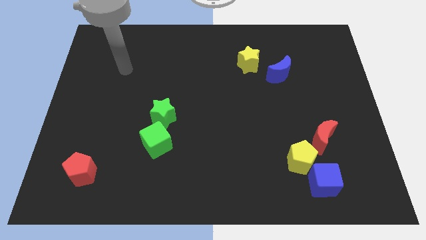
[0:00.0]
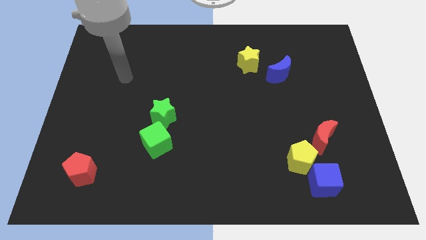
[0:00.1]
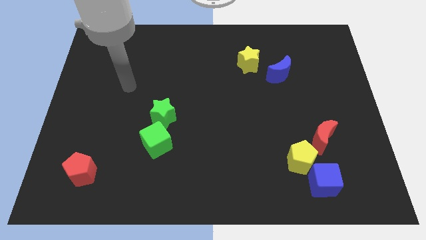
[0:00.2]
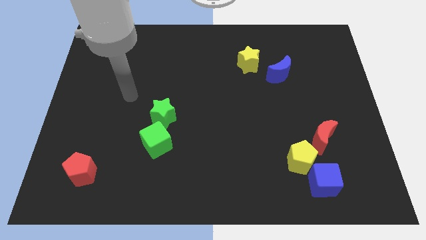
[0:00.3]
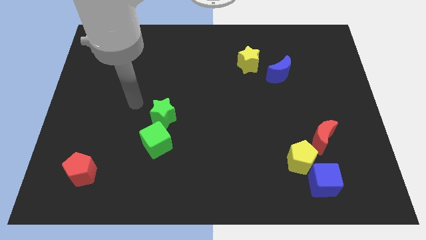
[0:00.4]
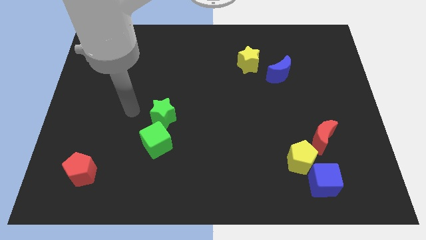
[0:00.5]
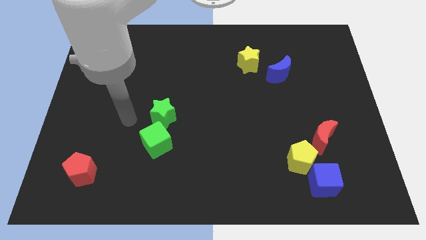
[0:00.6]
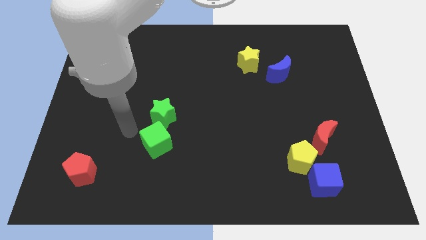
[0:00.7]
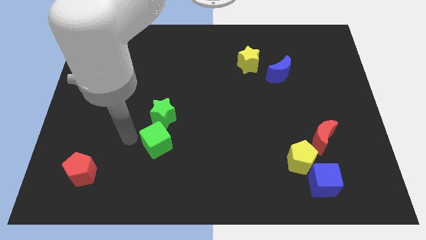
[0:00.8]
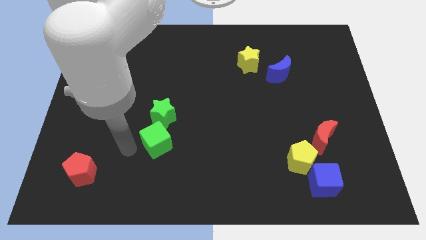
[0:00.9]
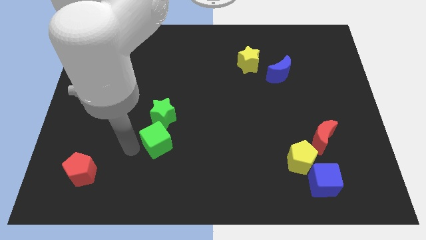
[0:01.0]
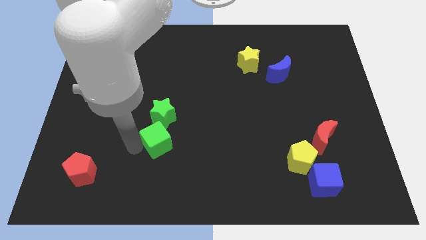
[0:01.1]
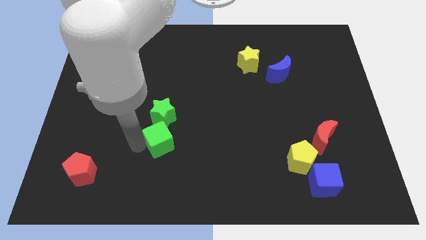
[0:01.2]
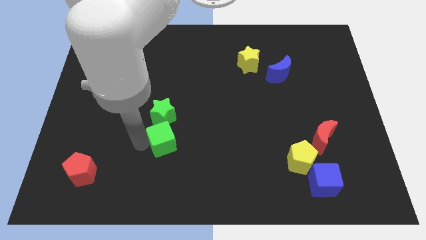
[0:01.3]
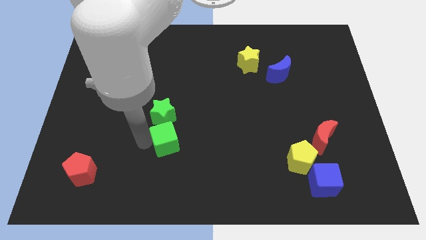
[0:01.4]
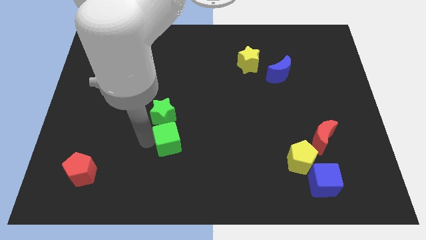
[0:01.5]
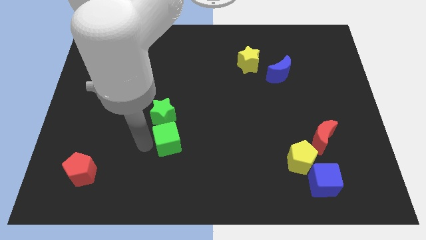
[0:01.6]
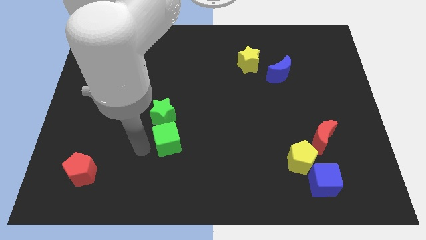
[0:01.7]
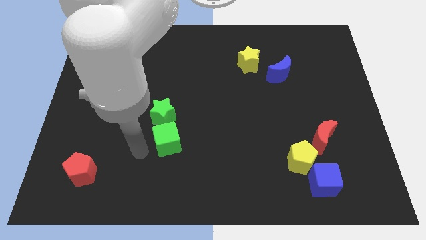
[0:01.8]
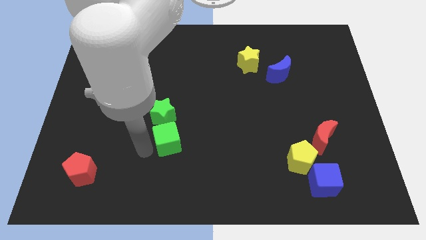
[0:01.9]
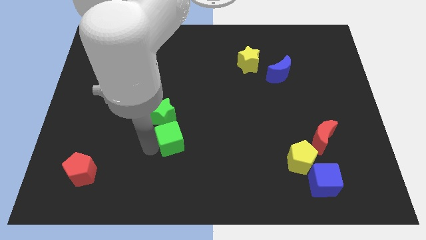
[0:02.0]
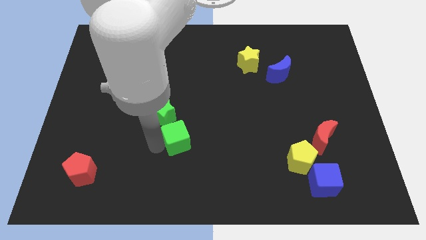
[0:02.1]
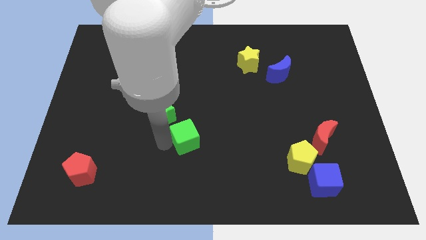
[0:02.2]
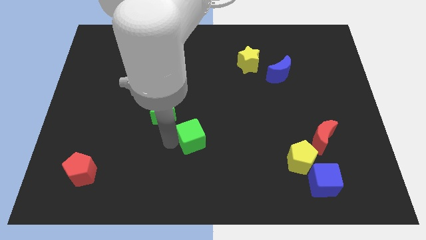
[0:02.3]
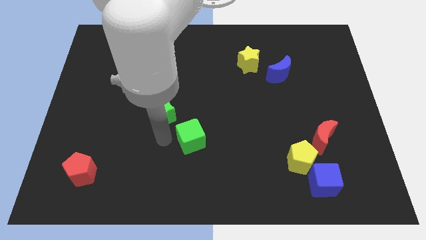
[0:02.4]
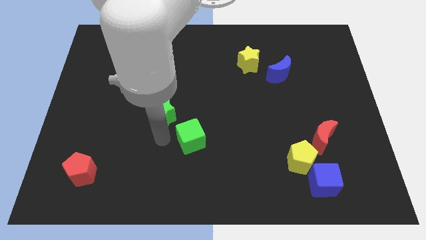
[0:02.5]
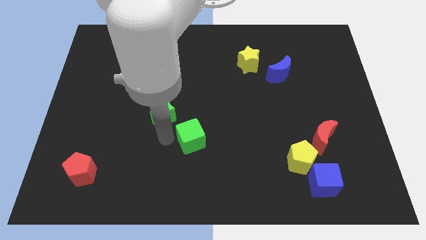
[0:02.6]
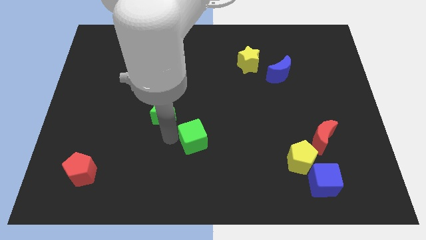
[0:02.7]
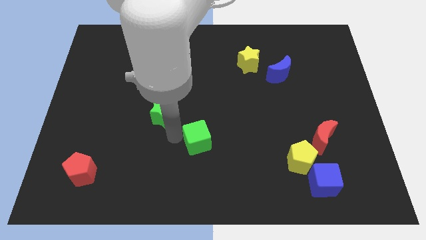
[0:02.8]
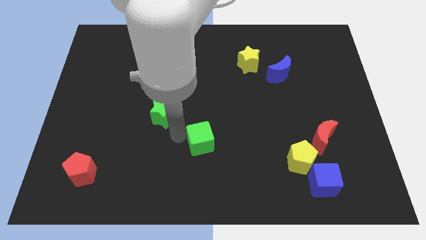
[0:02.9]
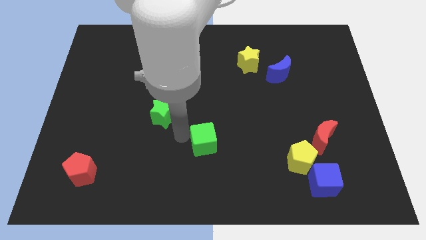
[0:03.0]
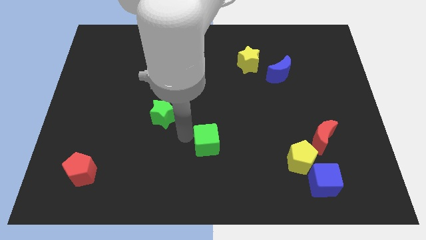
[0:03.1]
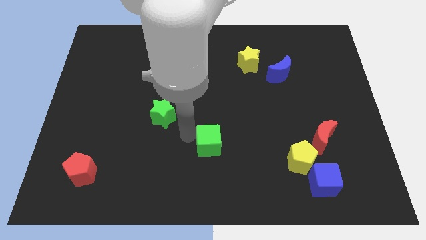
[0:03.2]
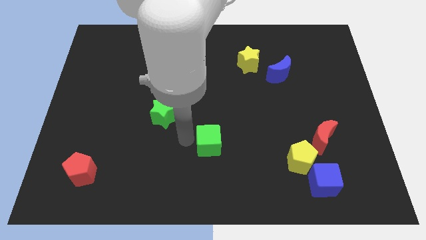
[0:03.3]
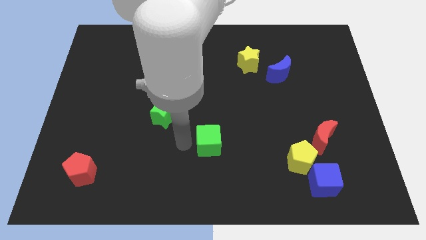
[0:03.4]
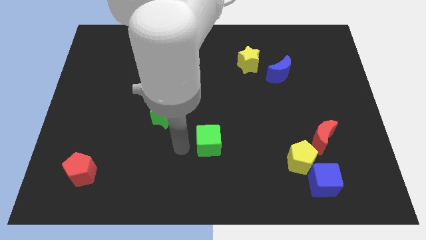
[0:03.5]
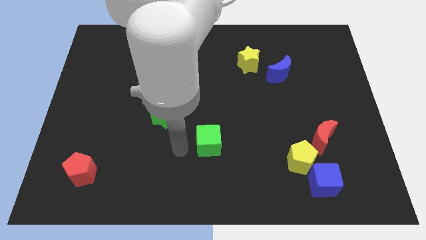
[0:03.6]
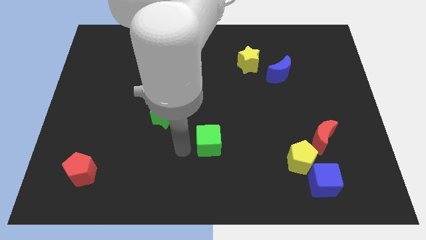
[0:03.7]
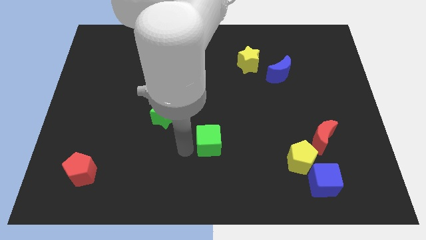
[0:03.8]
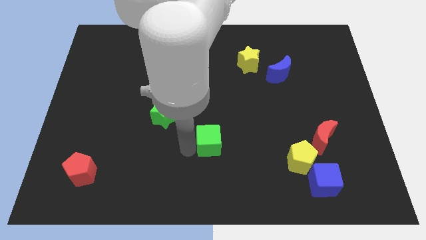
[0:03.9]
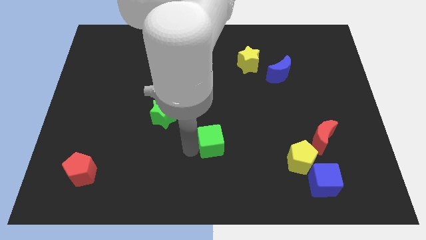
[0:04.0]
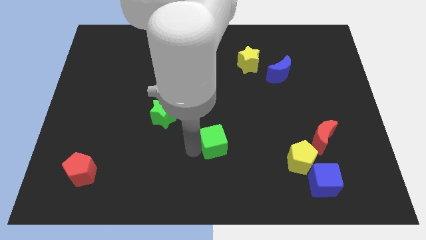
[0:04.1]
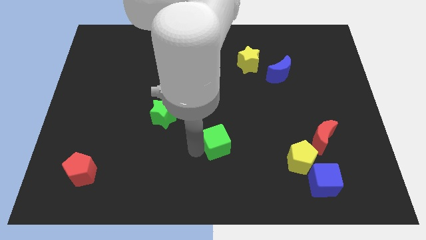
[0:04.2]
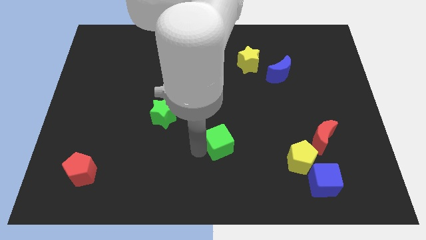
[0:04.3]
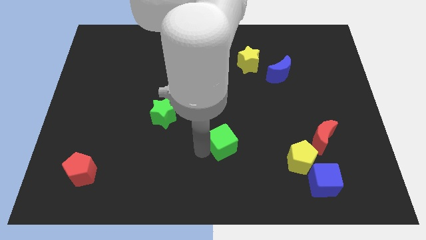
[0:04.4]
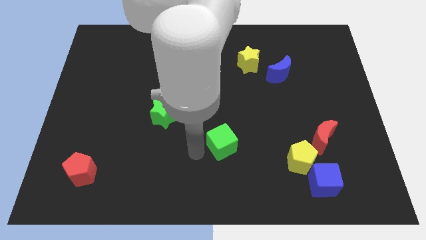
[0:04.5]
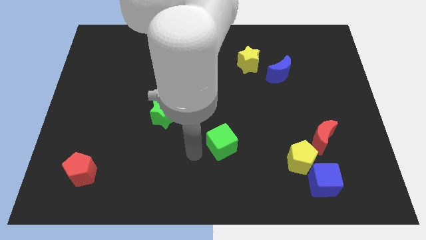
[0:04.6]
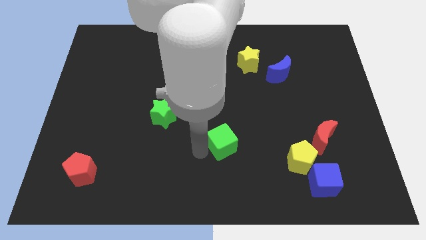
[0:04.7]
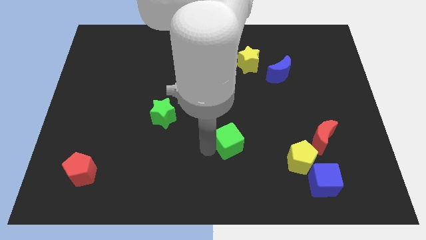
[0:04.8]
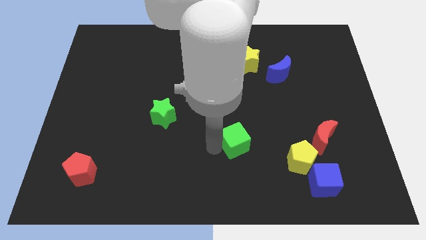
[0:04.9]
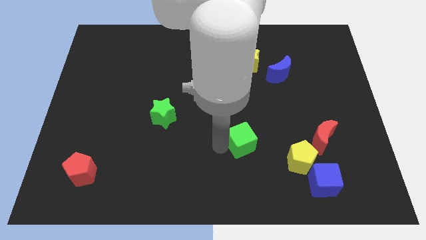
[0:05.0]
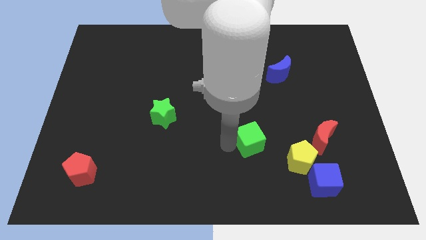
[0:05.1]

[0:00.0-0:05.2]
move the green cube to the right

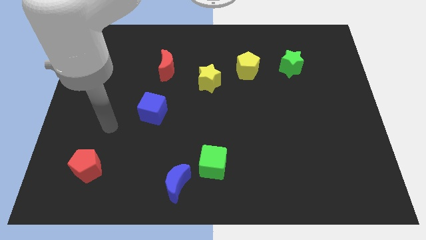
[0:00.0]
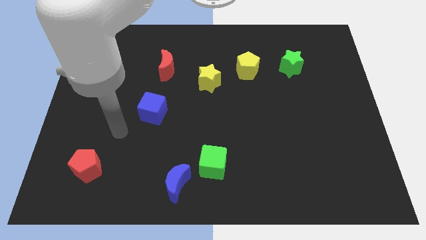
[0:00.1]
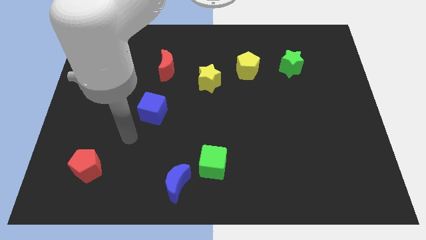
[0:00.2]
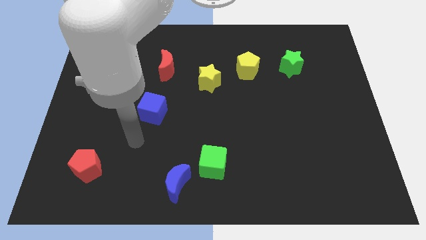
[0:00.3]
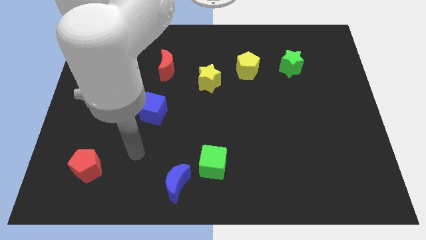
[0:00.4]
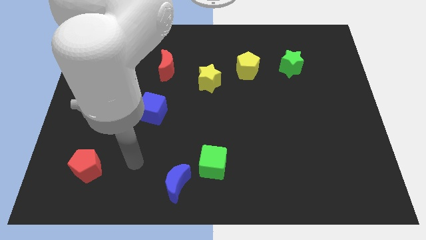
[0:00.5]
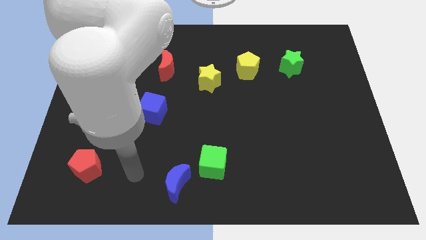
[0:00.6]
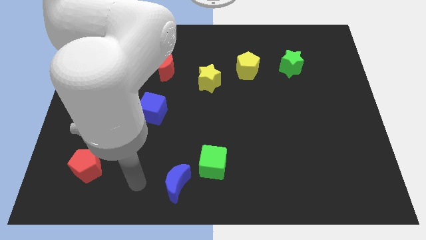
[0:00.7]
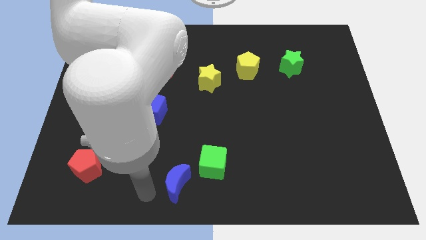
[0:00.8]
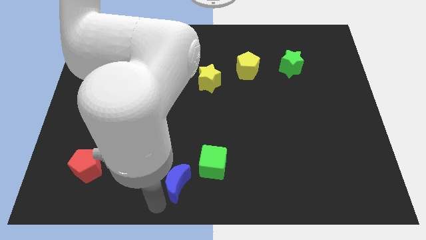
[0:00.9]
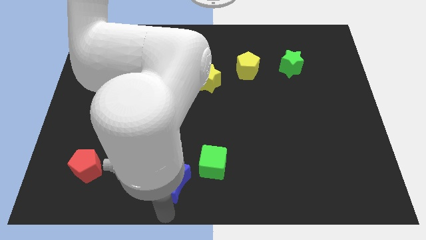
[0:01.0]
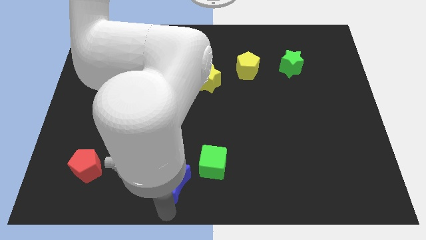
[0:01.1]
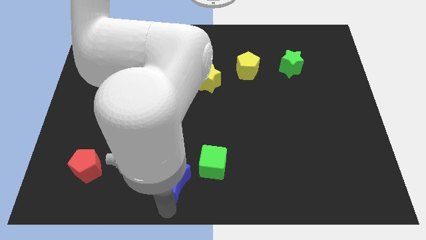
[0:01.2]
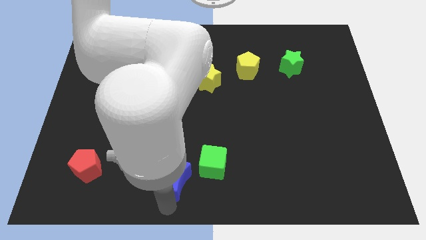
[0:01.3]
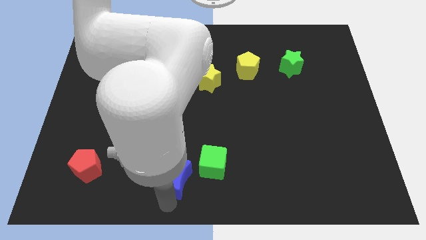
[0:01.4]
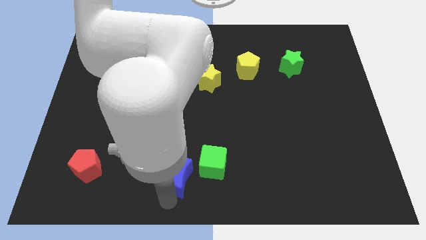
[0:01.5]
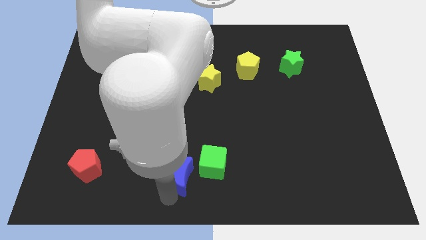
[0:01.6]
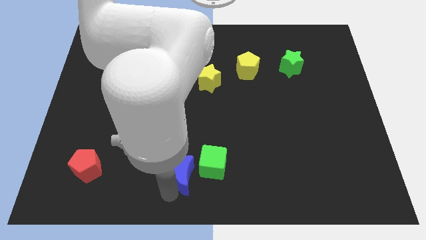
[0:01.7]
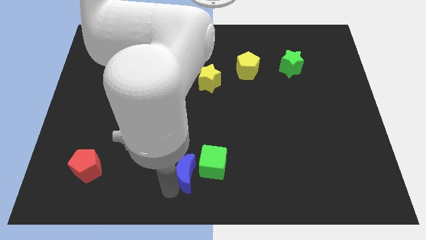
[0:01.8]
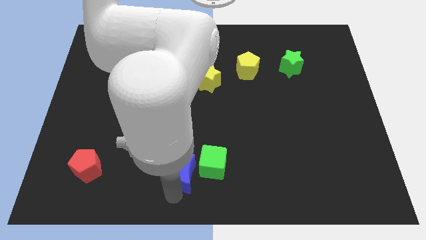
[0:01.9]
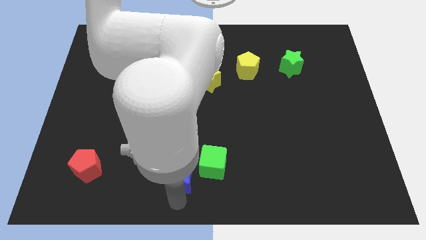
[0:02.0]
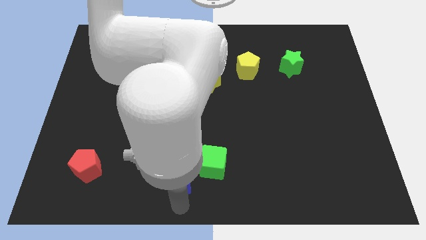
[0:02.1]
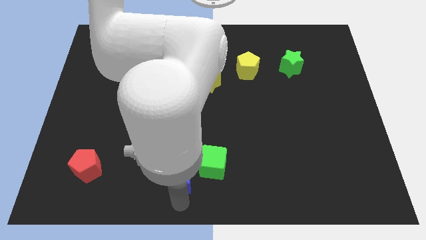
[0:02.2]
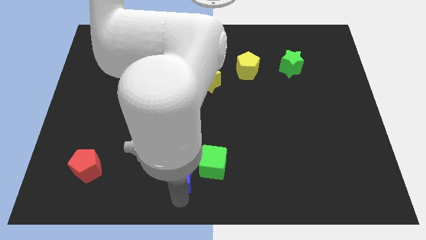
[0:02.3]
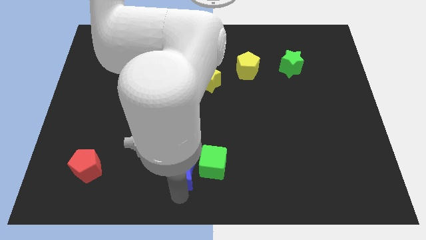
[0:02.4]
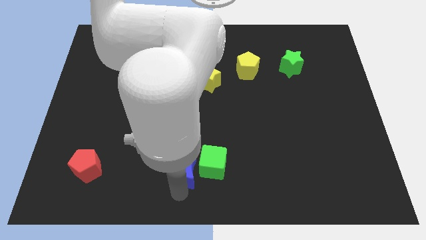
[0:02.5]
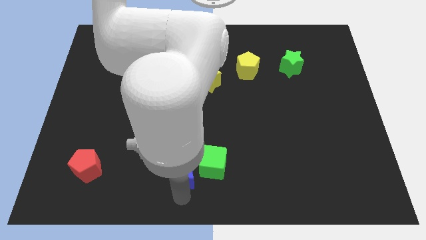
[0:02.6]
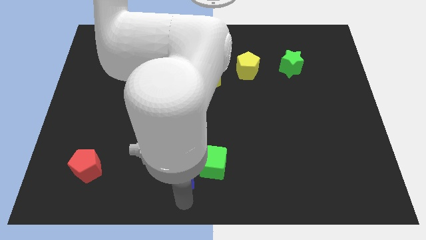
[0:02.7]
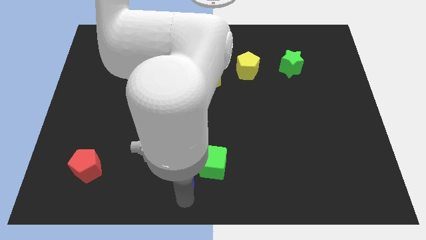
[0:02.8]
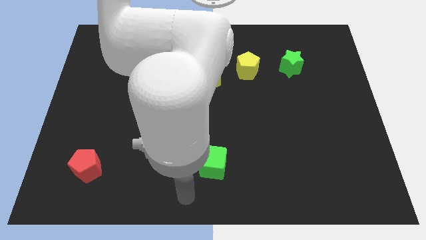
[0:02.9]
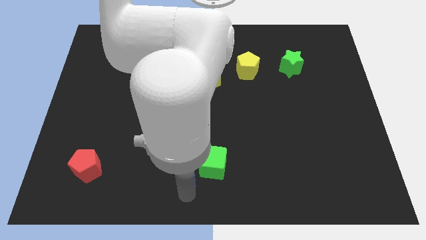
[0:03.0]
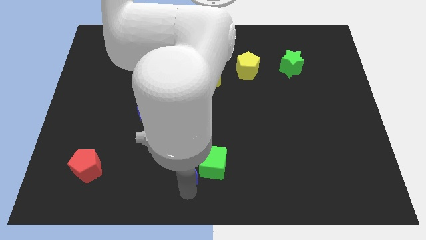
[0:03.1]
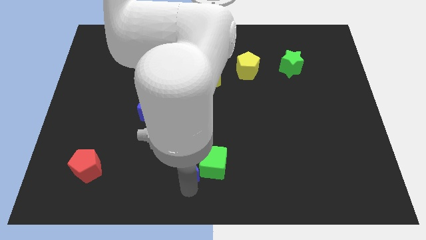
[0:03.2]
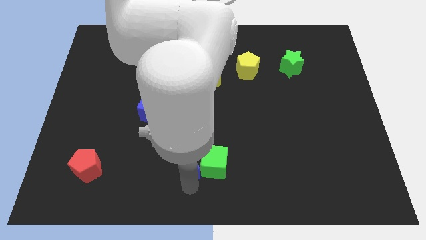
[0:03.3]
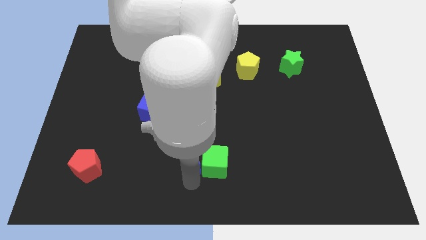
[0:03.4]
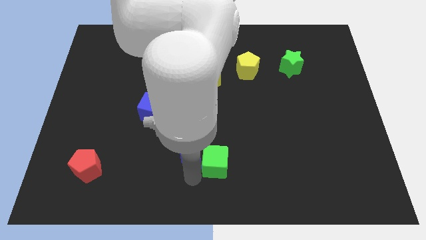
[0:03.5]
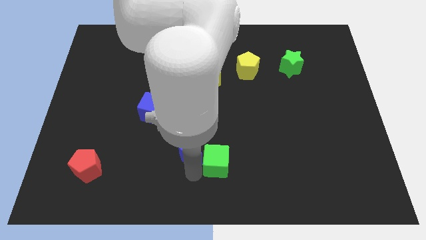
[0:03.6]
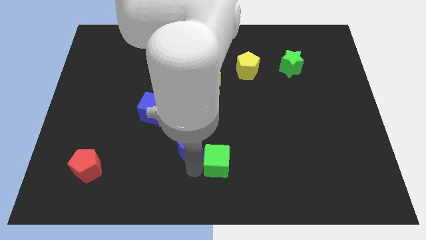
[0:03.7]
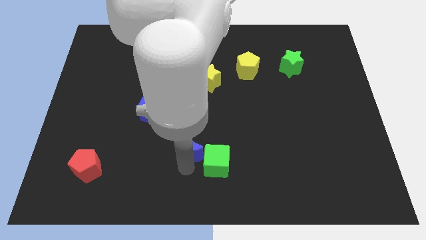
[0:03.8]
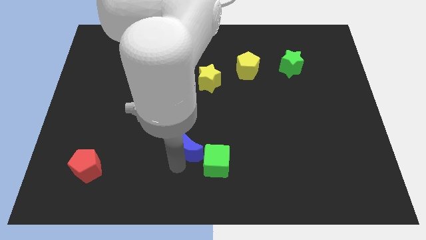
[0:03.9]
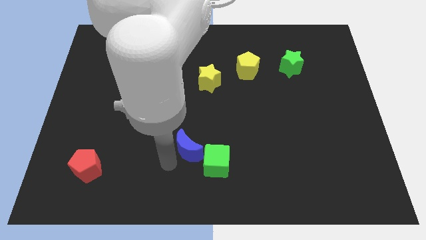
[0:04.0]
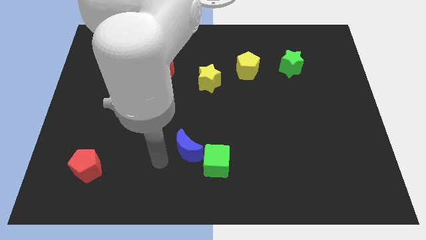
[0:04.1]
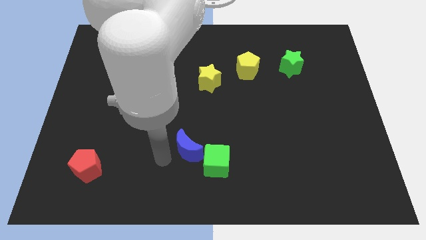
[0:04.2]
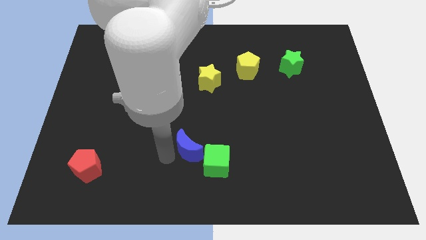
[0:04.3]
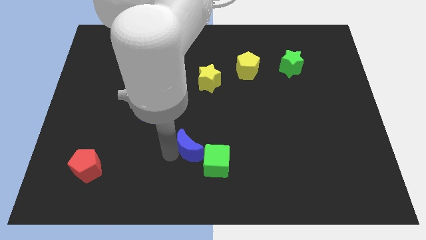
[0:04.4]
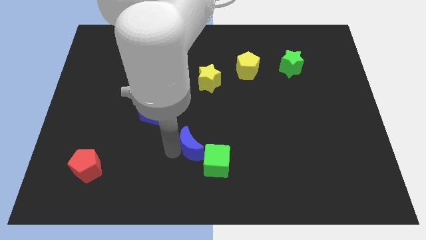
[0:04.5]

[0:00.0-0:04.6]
slide the blue moon slightly diagonally up and to the right
